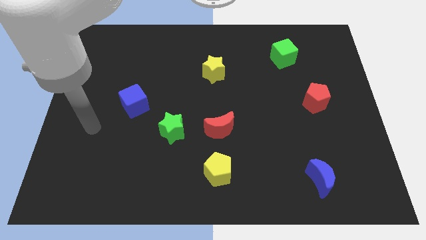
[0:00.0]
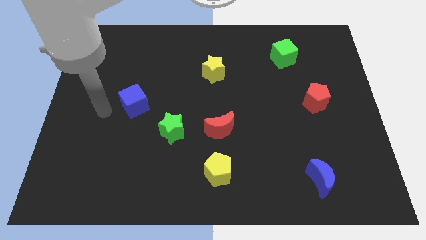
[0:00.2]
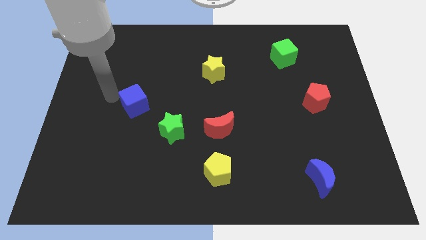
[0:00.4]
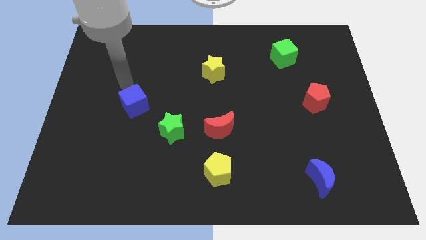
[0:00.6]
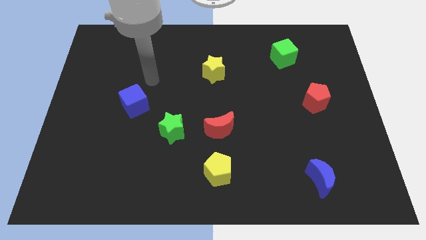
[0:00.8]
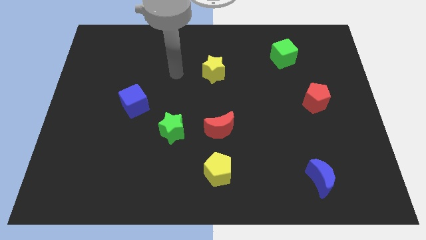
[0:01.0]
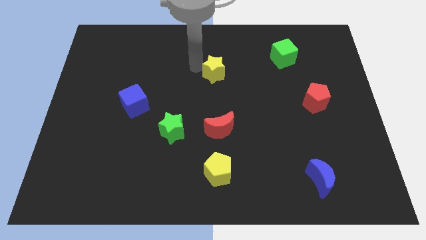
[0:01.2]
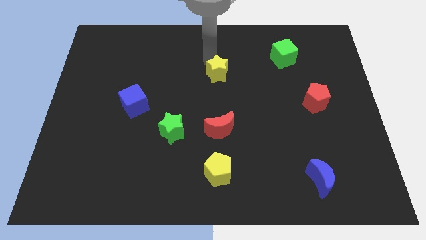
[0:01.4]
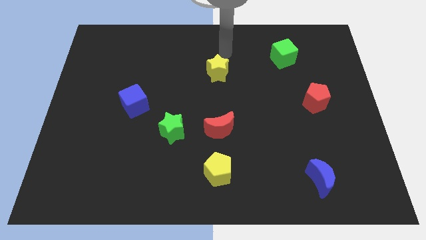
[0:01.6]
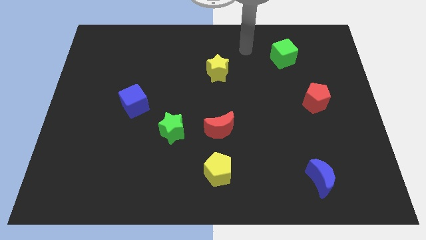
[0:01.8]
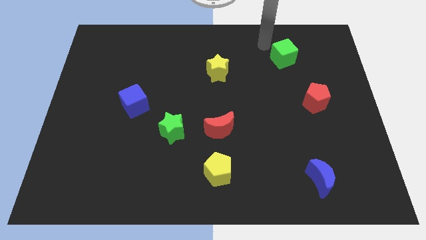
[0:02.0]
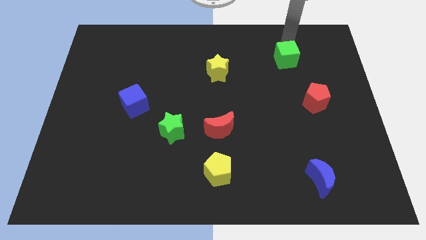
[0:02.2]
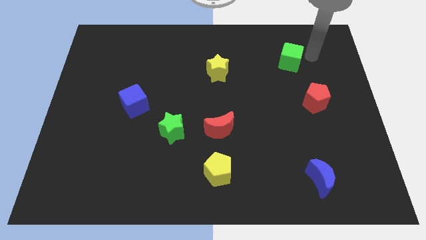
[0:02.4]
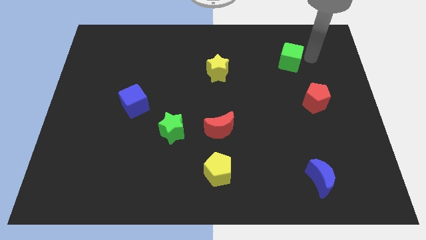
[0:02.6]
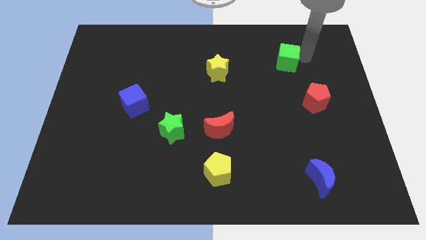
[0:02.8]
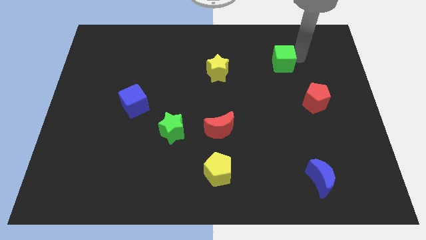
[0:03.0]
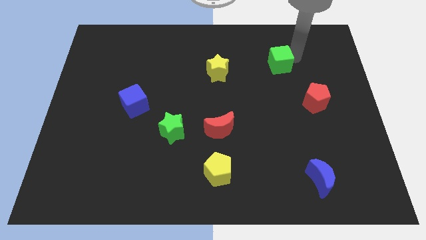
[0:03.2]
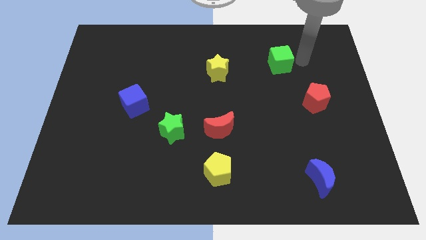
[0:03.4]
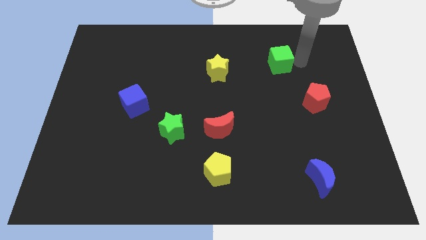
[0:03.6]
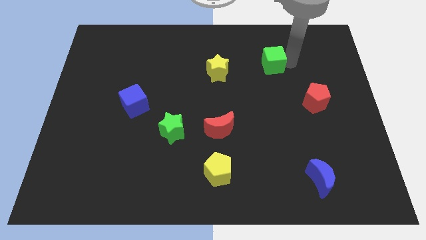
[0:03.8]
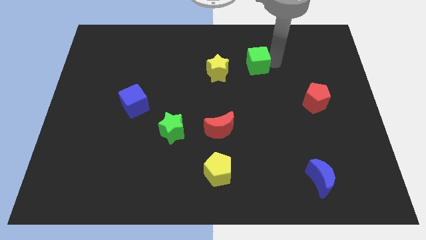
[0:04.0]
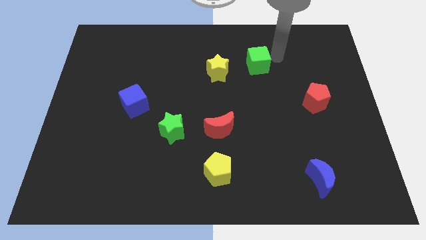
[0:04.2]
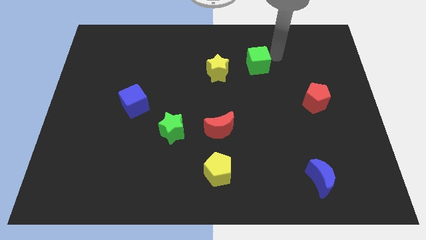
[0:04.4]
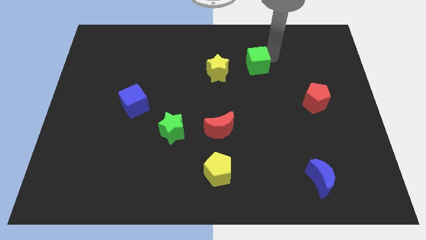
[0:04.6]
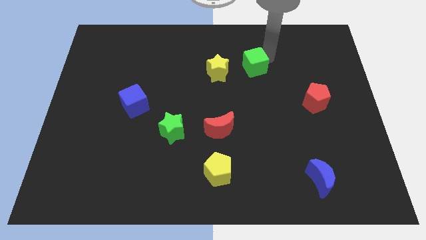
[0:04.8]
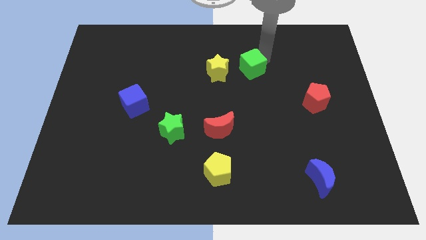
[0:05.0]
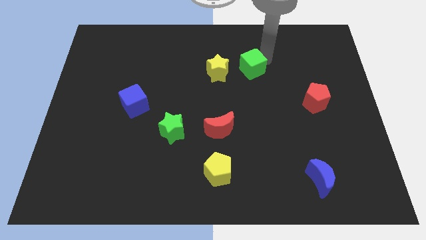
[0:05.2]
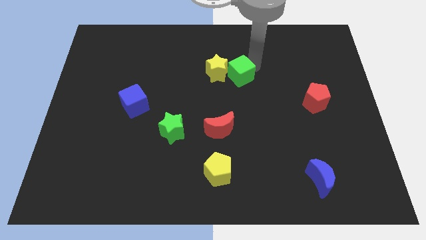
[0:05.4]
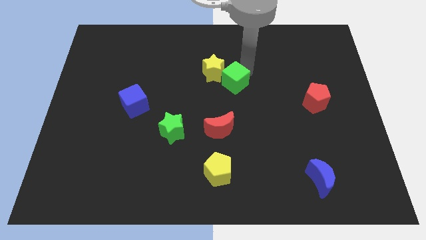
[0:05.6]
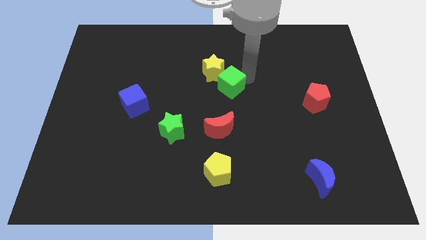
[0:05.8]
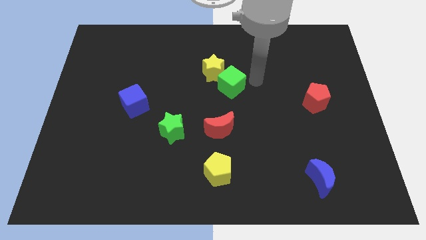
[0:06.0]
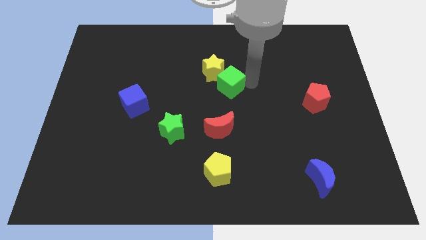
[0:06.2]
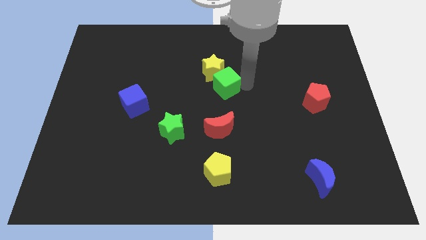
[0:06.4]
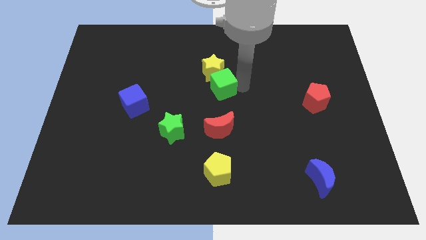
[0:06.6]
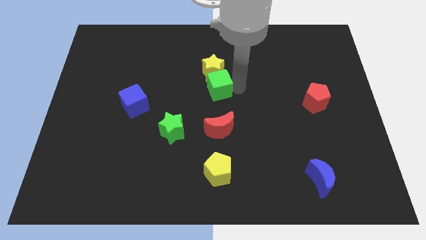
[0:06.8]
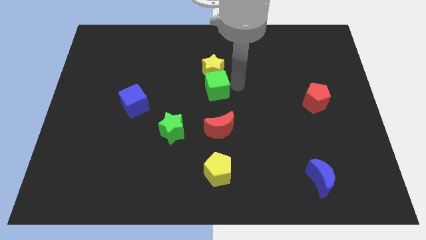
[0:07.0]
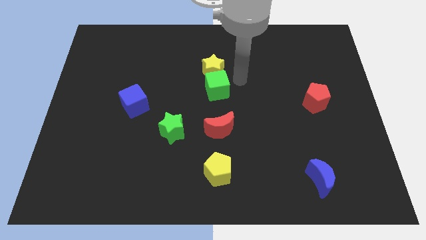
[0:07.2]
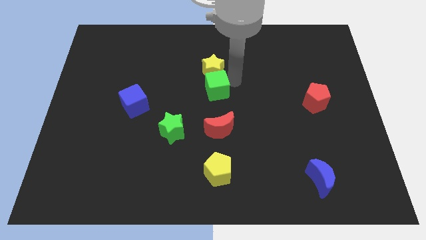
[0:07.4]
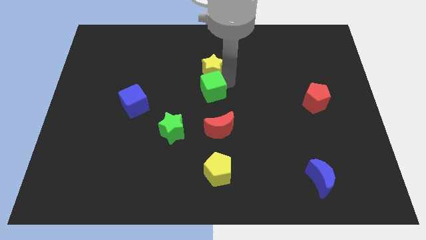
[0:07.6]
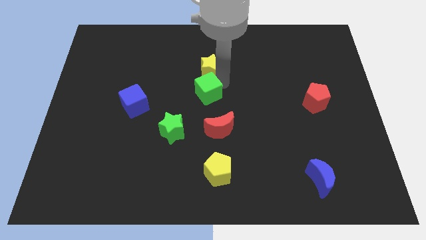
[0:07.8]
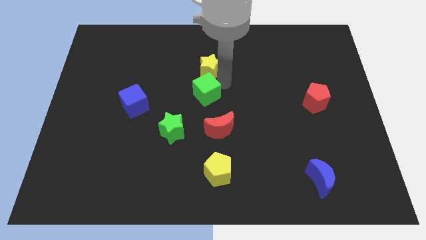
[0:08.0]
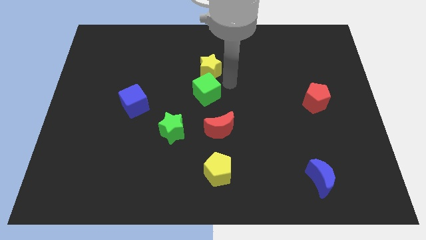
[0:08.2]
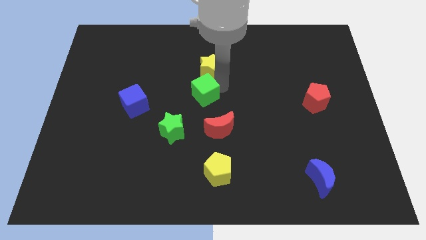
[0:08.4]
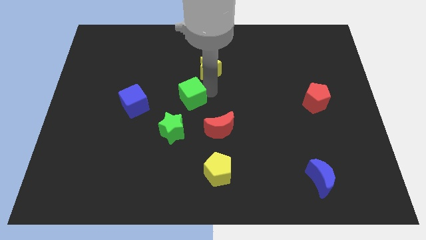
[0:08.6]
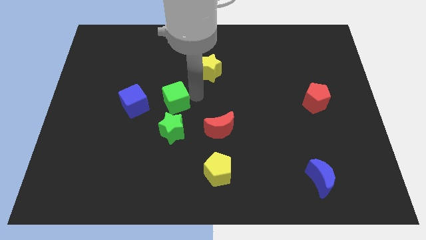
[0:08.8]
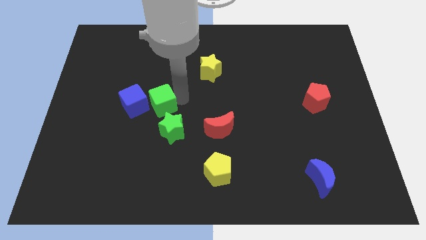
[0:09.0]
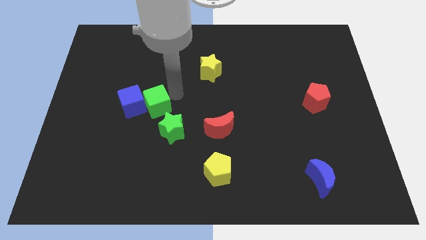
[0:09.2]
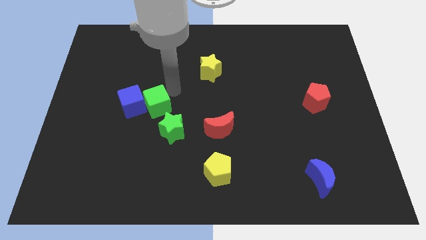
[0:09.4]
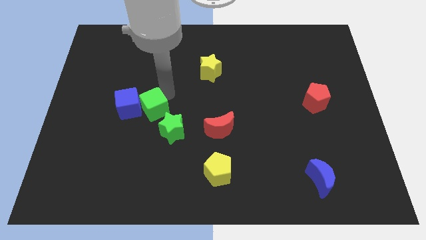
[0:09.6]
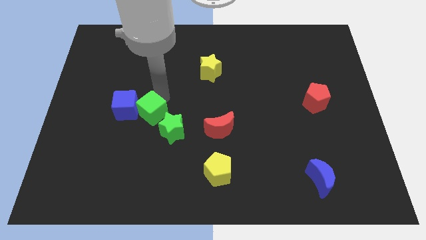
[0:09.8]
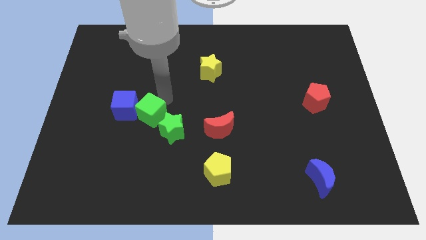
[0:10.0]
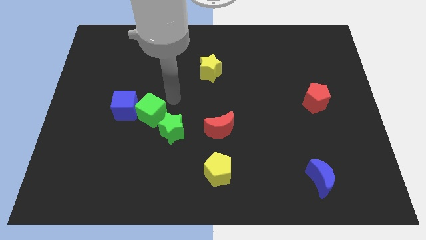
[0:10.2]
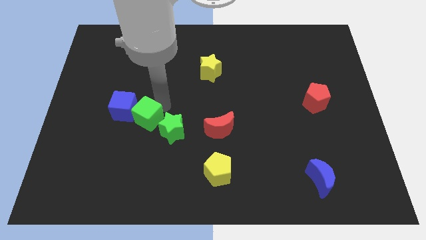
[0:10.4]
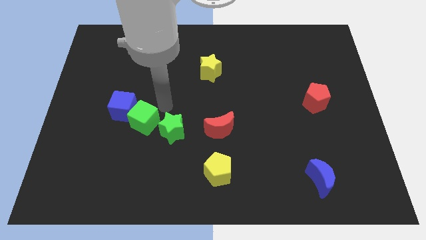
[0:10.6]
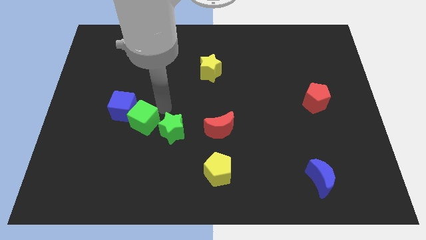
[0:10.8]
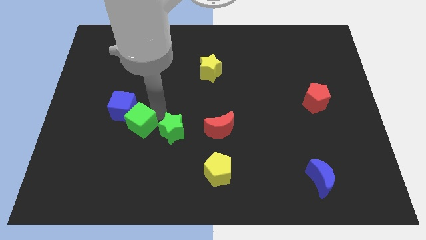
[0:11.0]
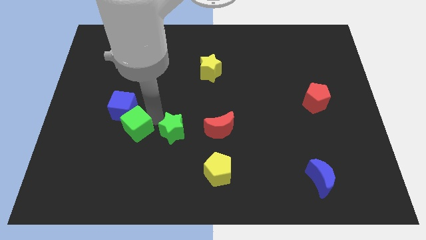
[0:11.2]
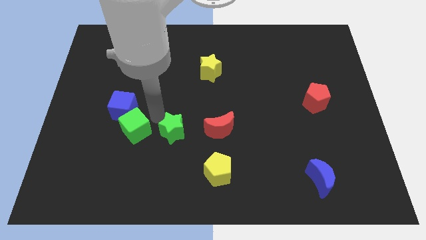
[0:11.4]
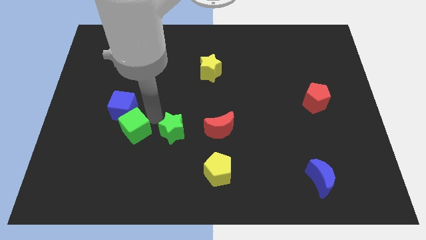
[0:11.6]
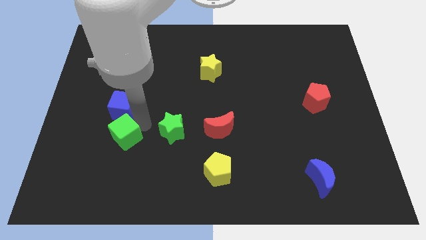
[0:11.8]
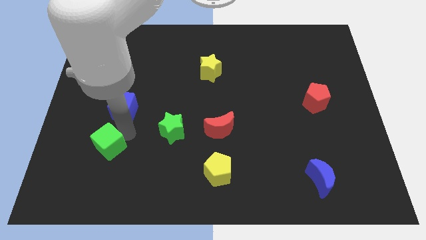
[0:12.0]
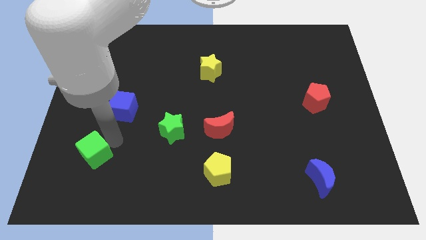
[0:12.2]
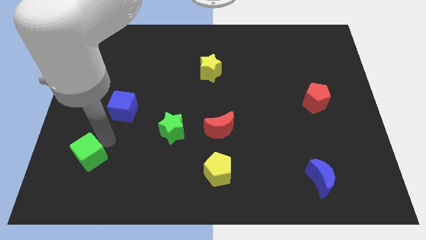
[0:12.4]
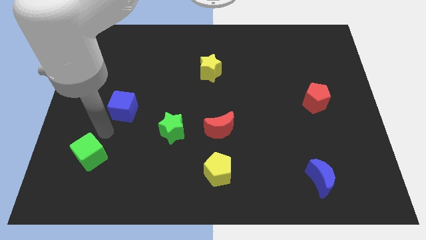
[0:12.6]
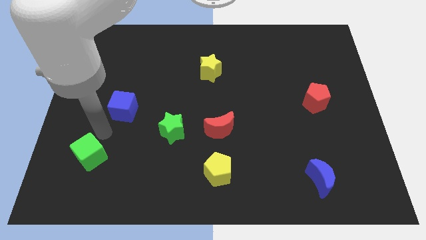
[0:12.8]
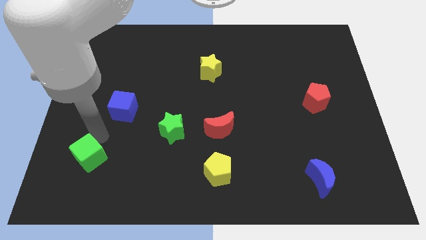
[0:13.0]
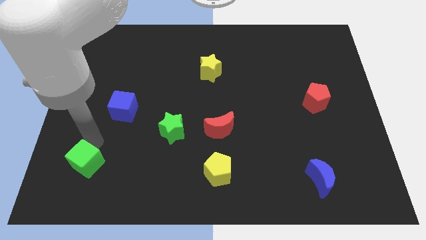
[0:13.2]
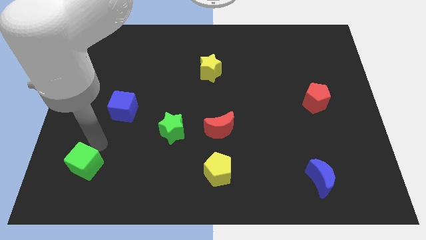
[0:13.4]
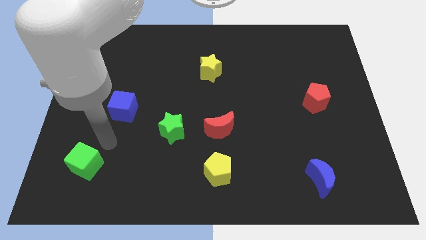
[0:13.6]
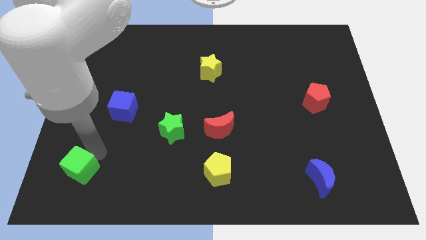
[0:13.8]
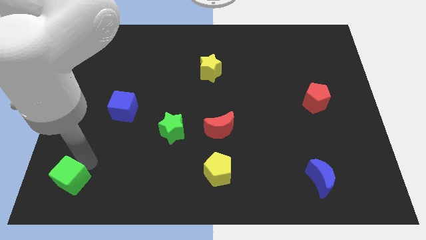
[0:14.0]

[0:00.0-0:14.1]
slide the green cube to the bottom left corner

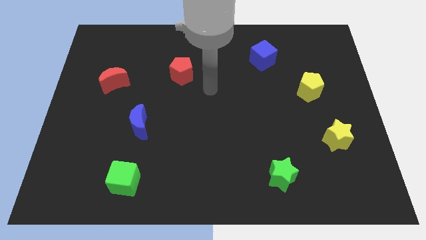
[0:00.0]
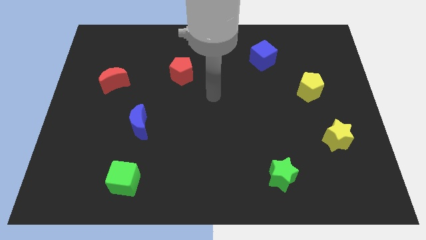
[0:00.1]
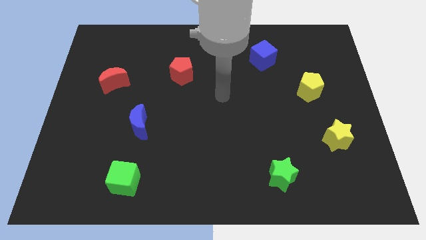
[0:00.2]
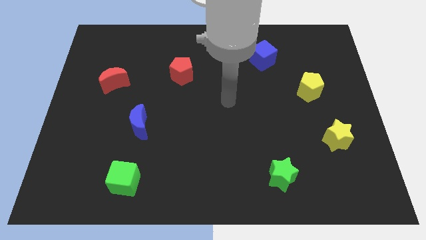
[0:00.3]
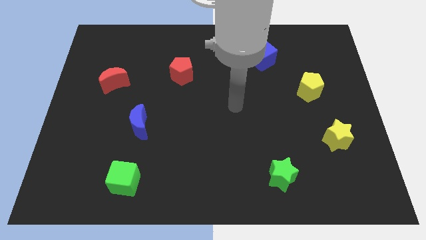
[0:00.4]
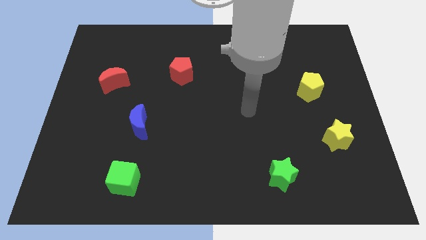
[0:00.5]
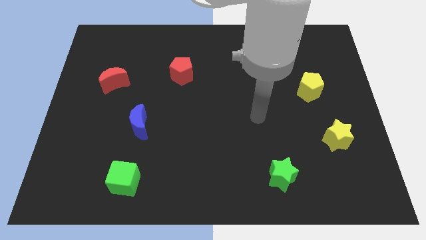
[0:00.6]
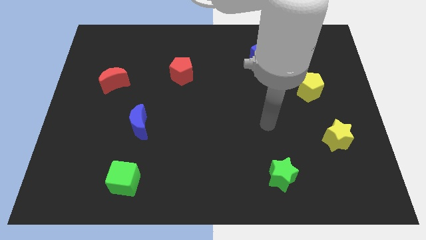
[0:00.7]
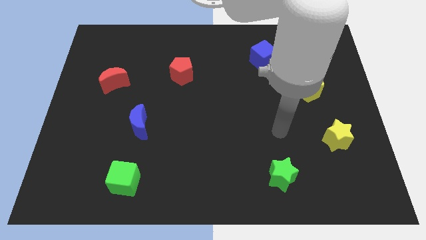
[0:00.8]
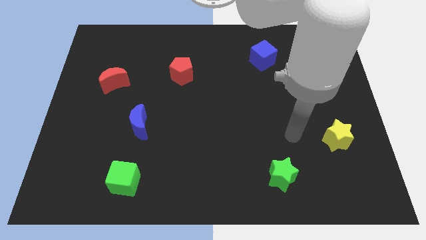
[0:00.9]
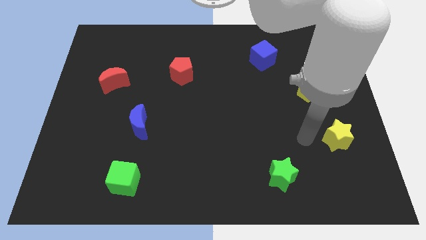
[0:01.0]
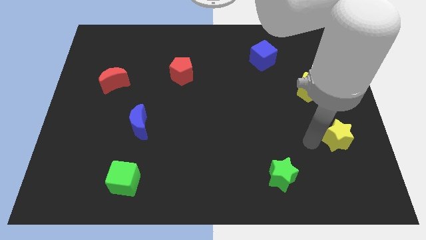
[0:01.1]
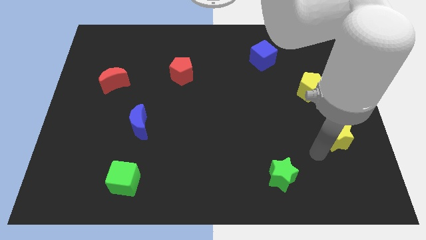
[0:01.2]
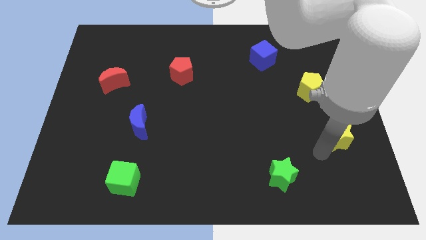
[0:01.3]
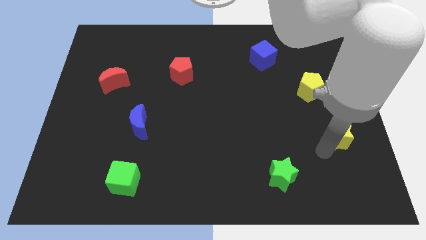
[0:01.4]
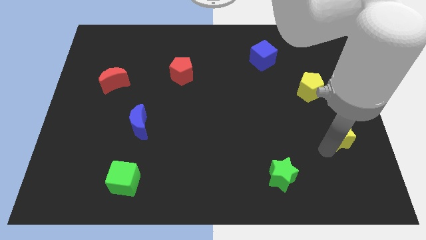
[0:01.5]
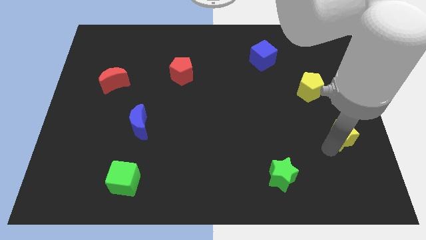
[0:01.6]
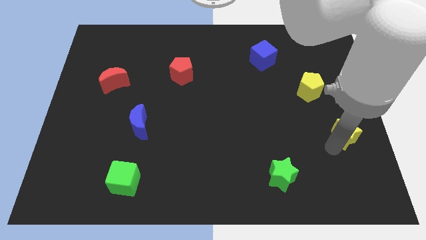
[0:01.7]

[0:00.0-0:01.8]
move the yellow star to the right side of the board
